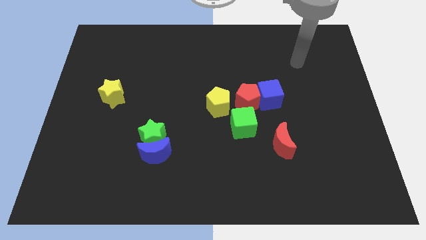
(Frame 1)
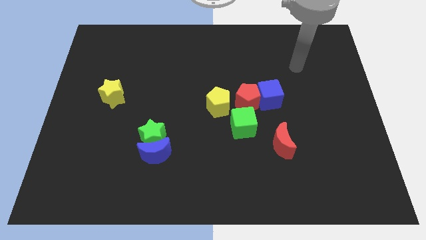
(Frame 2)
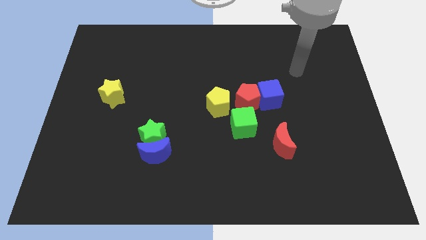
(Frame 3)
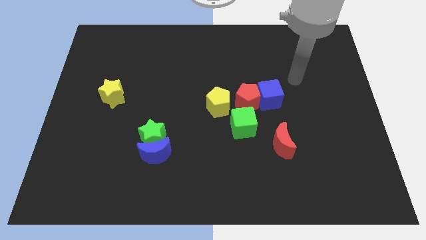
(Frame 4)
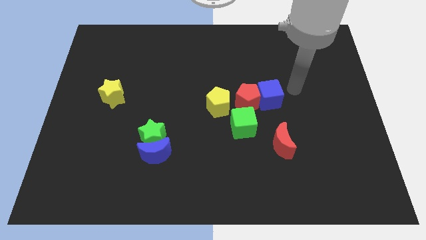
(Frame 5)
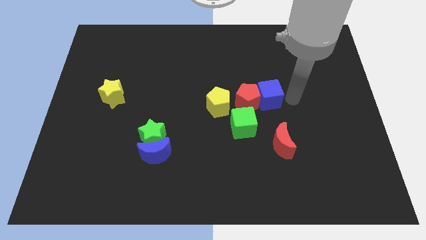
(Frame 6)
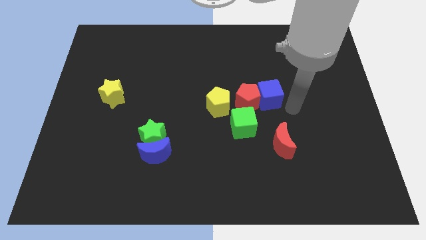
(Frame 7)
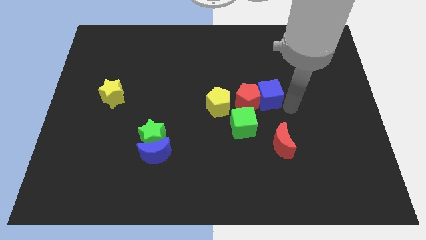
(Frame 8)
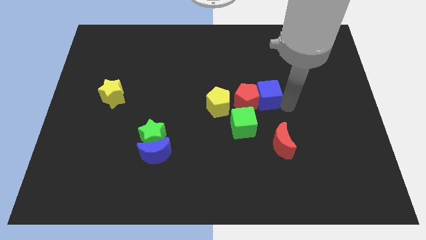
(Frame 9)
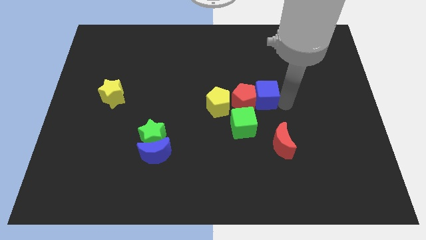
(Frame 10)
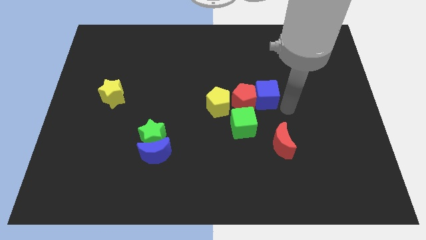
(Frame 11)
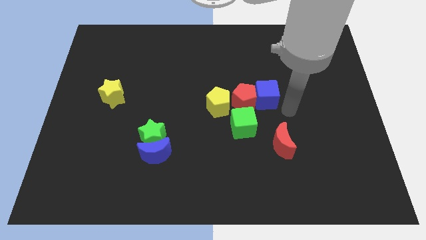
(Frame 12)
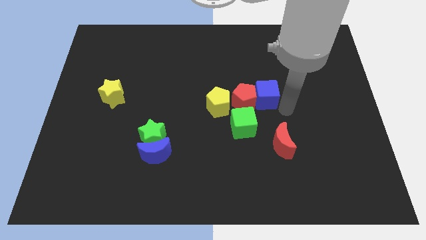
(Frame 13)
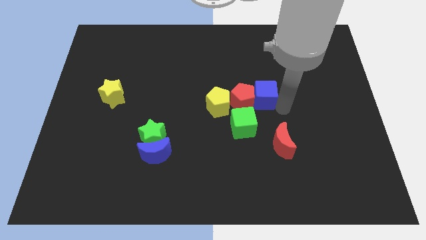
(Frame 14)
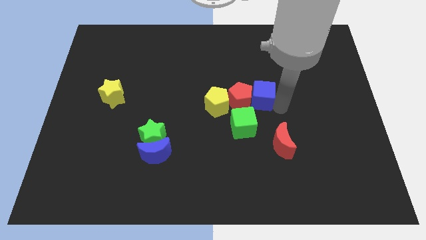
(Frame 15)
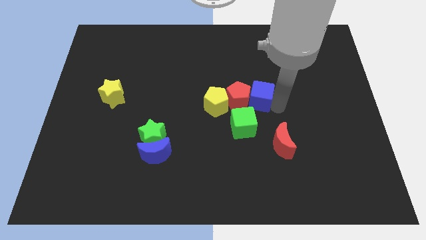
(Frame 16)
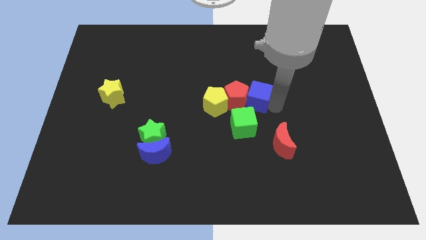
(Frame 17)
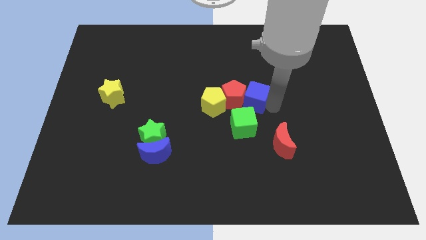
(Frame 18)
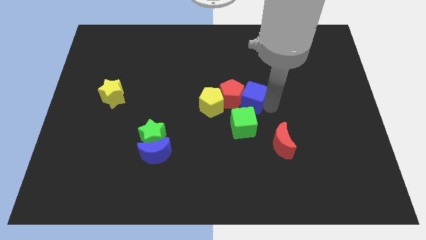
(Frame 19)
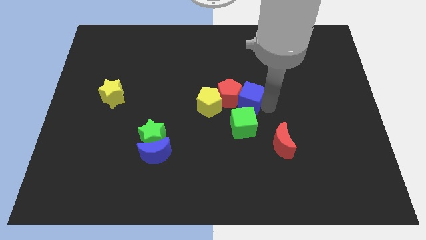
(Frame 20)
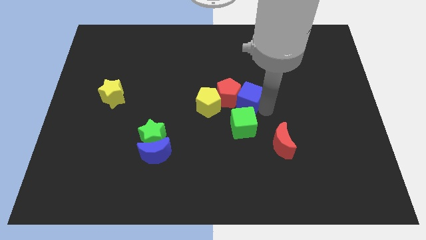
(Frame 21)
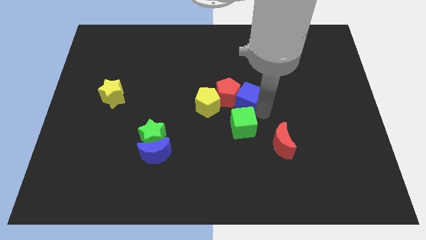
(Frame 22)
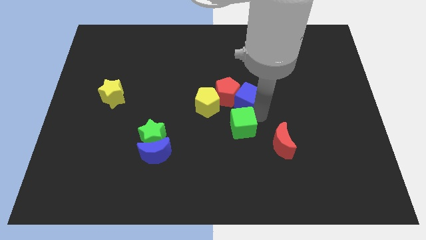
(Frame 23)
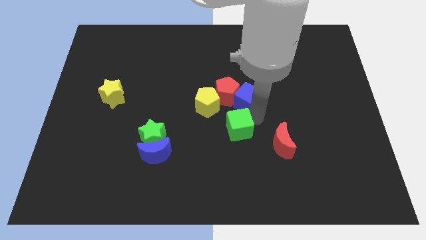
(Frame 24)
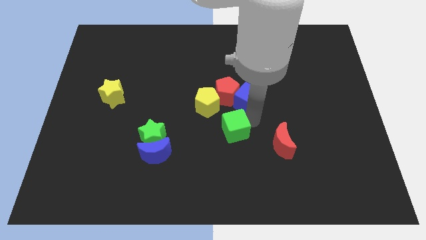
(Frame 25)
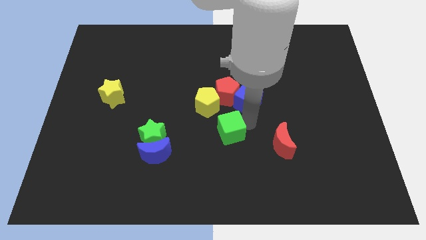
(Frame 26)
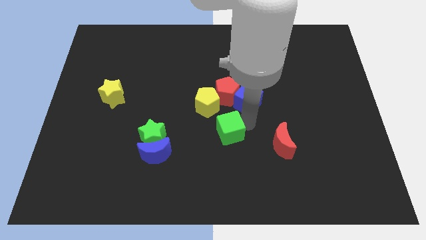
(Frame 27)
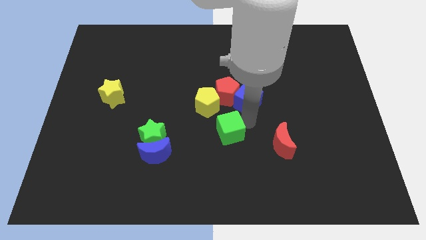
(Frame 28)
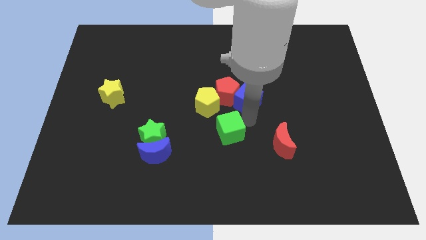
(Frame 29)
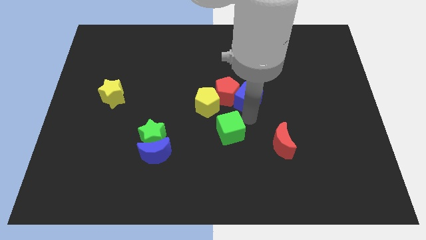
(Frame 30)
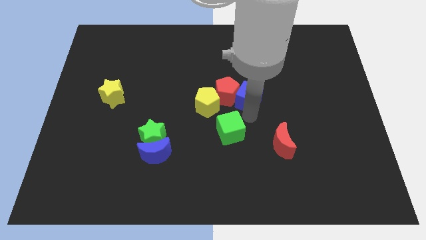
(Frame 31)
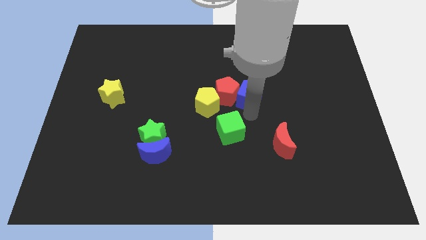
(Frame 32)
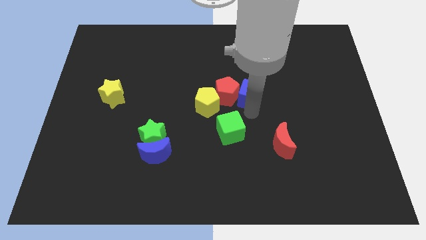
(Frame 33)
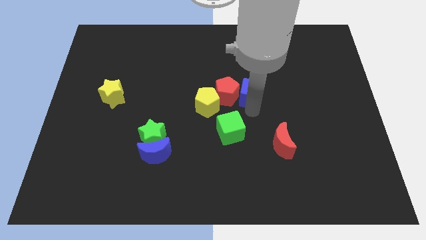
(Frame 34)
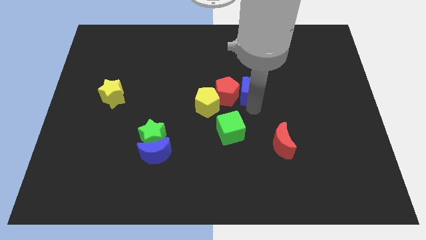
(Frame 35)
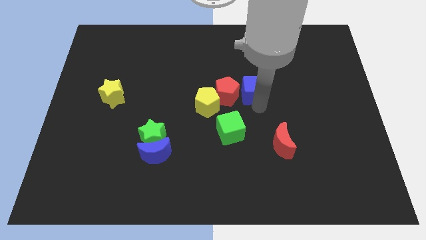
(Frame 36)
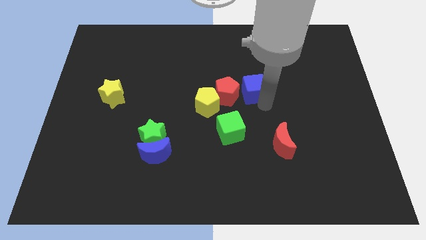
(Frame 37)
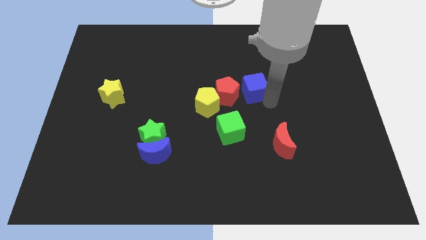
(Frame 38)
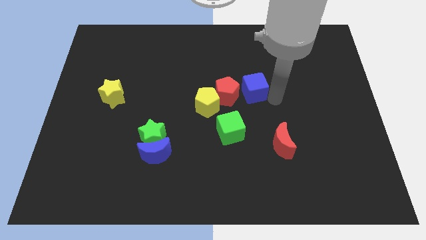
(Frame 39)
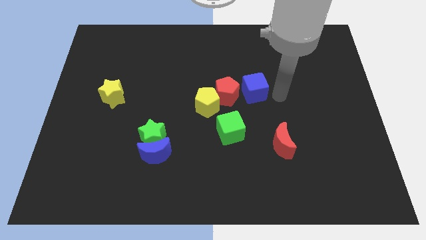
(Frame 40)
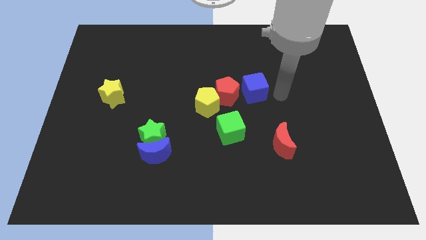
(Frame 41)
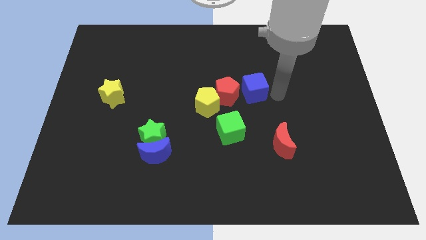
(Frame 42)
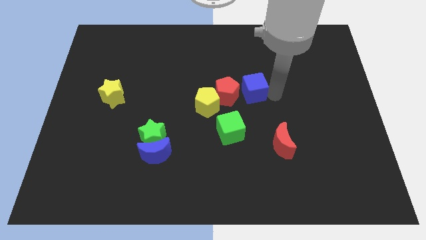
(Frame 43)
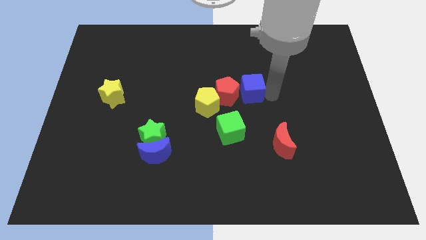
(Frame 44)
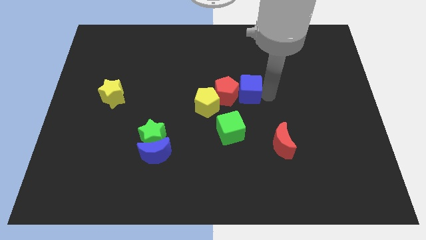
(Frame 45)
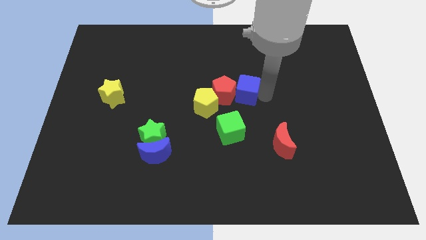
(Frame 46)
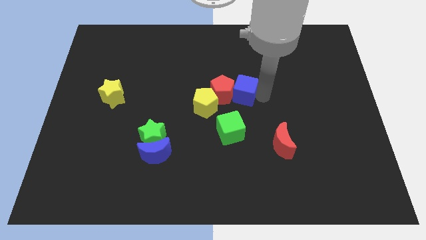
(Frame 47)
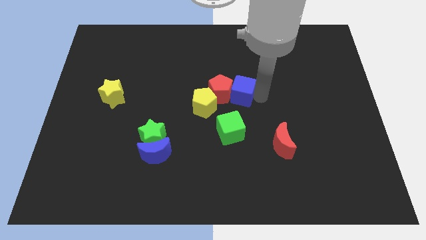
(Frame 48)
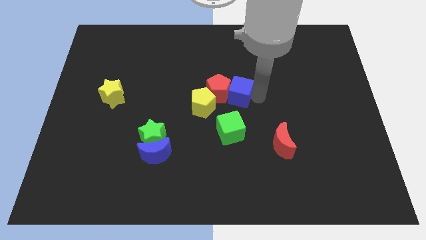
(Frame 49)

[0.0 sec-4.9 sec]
slightly push the blue cube left

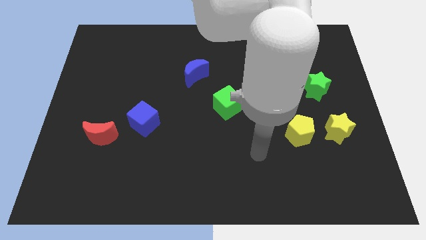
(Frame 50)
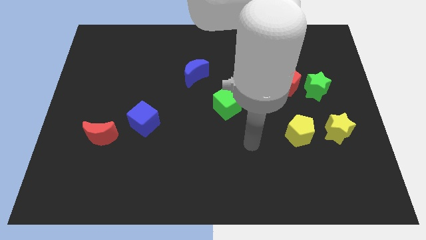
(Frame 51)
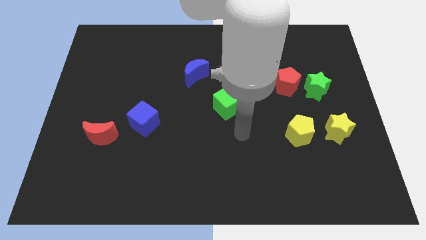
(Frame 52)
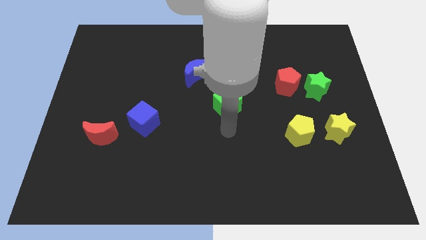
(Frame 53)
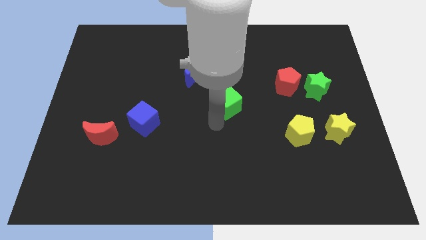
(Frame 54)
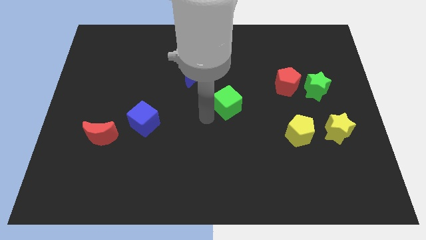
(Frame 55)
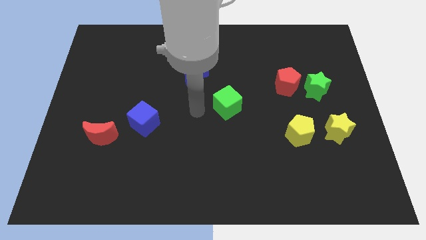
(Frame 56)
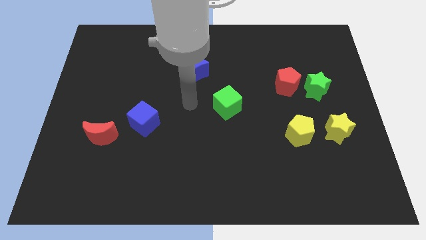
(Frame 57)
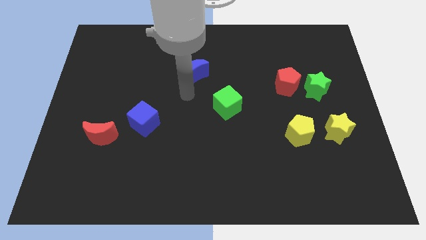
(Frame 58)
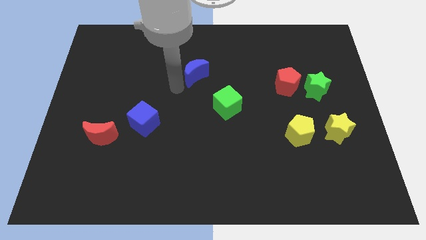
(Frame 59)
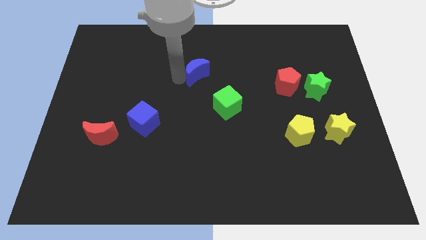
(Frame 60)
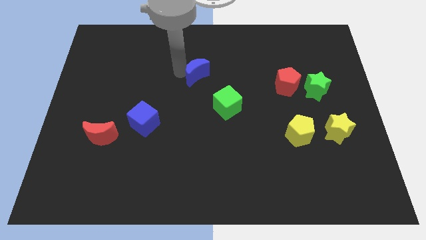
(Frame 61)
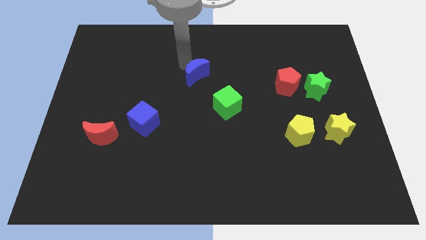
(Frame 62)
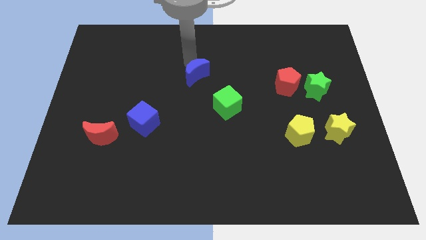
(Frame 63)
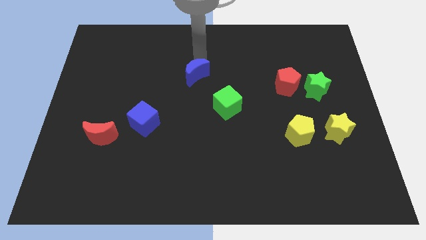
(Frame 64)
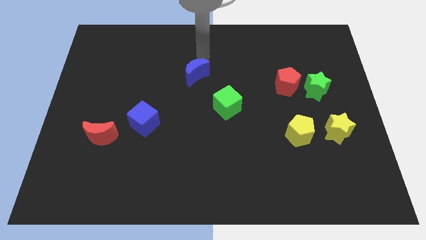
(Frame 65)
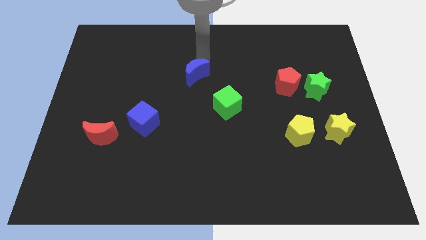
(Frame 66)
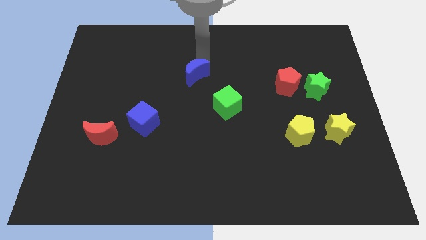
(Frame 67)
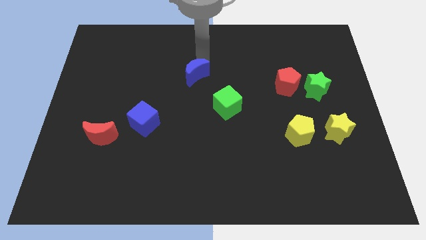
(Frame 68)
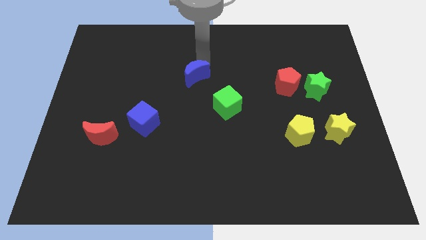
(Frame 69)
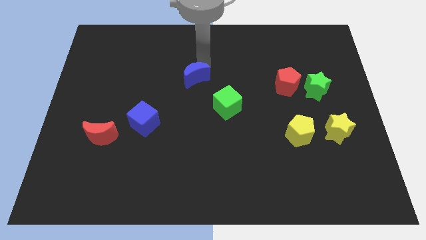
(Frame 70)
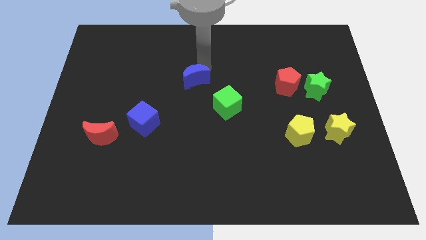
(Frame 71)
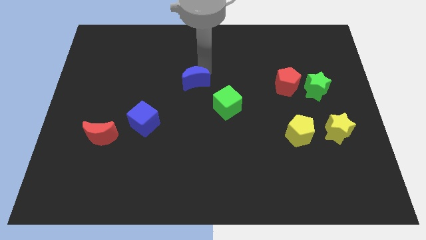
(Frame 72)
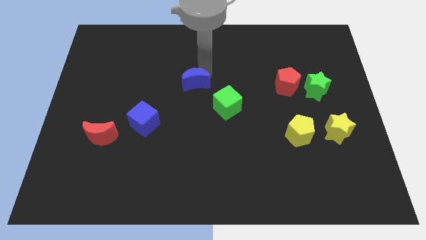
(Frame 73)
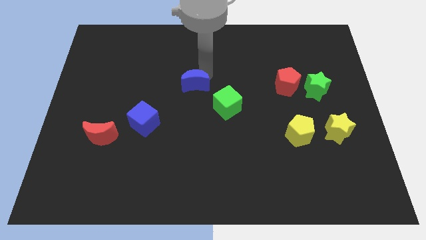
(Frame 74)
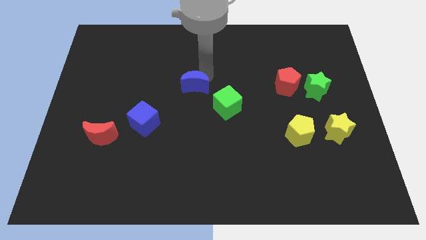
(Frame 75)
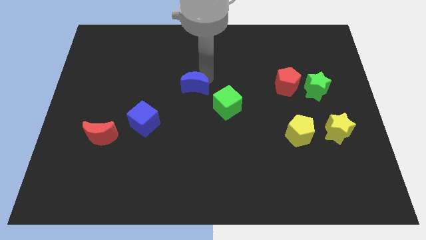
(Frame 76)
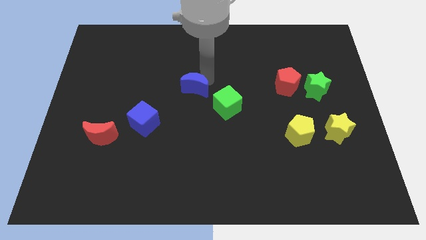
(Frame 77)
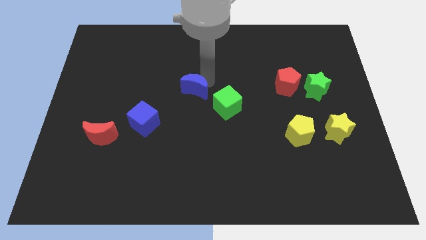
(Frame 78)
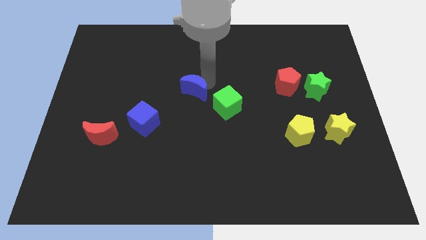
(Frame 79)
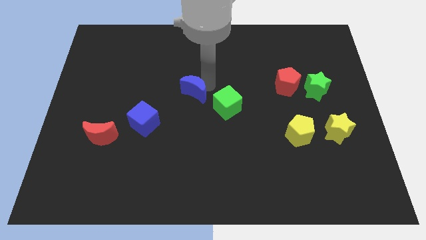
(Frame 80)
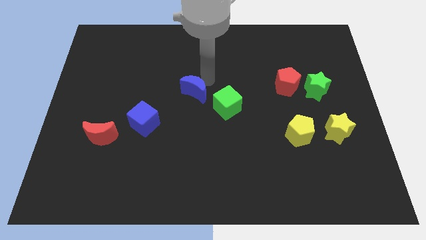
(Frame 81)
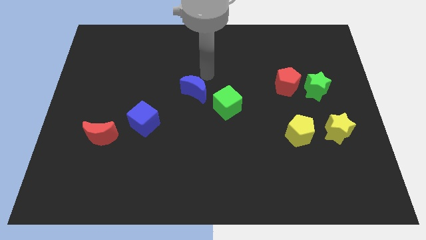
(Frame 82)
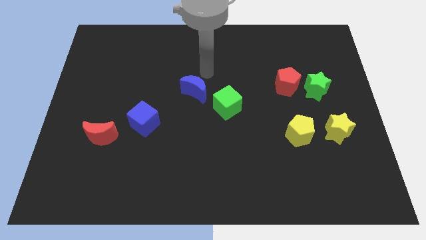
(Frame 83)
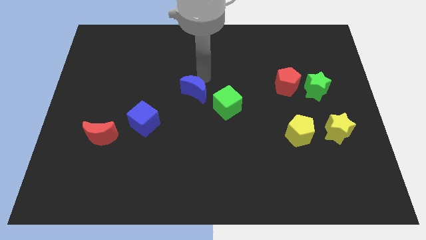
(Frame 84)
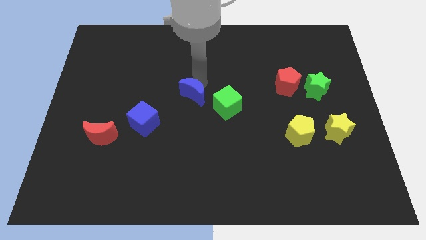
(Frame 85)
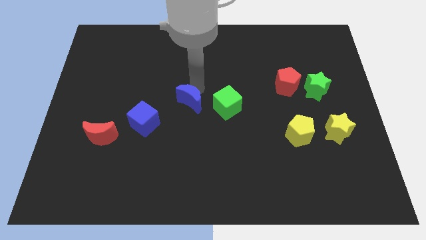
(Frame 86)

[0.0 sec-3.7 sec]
move the blue moon a bit down
